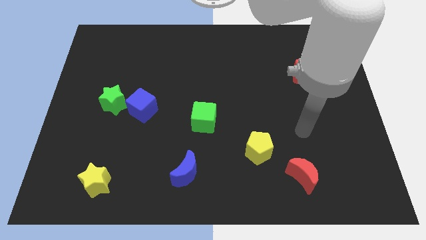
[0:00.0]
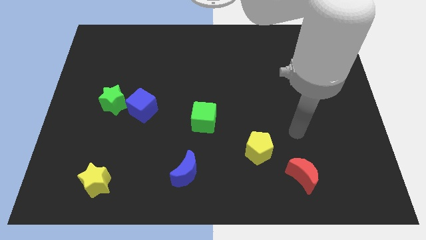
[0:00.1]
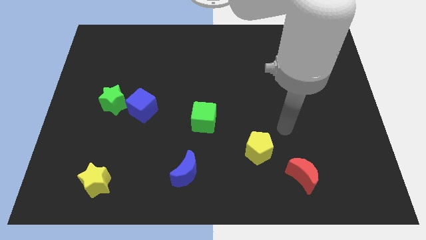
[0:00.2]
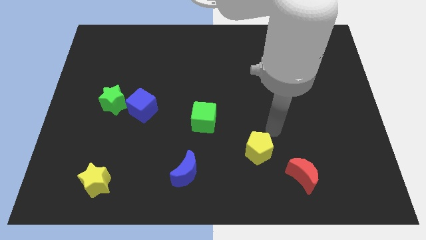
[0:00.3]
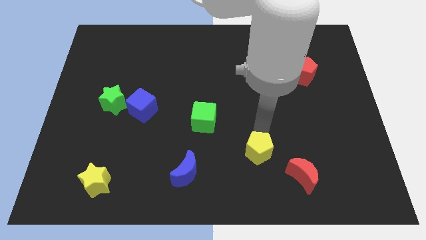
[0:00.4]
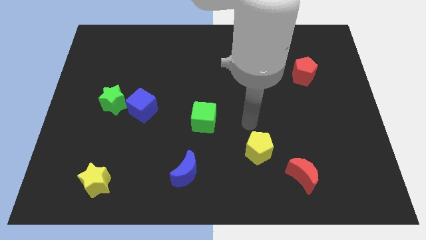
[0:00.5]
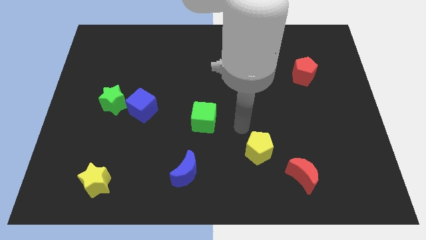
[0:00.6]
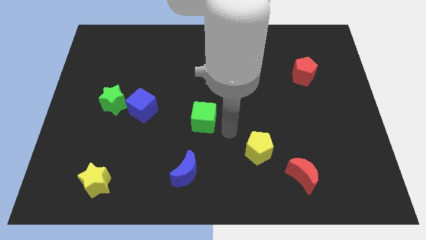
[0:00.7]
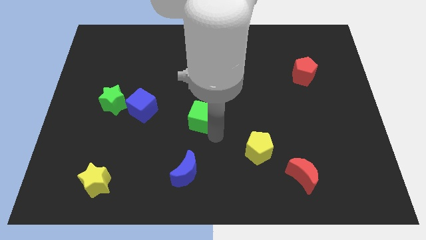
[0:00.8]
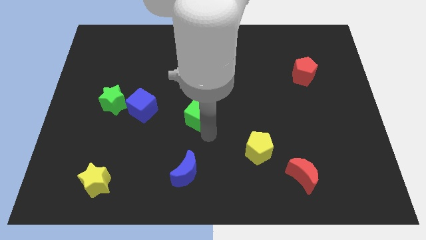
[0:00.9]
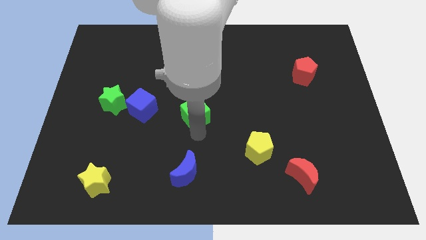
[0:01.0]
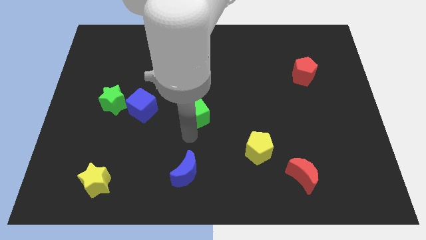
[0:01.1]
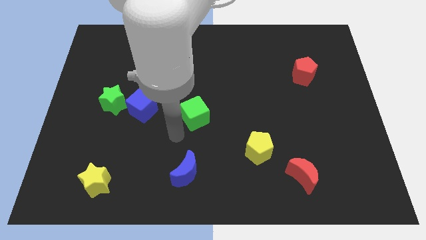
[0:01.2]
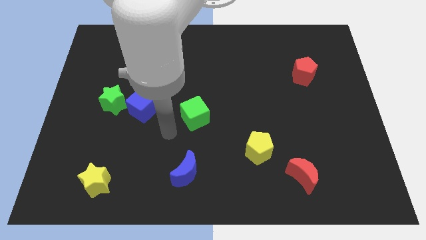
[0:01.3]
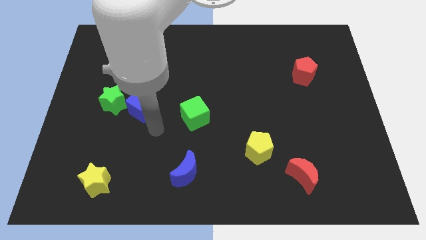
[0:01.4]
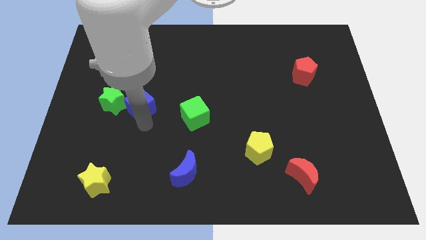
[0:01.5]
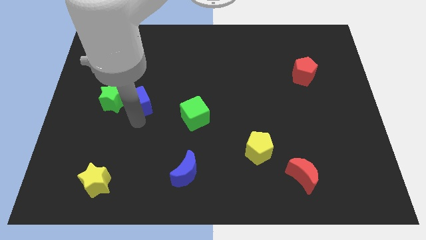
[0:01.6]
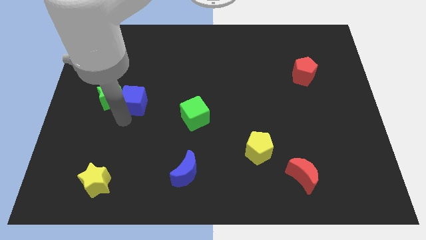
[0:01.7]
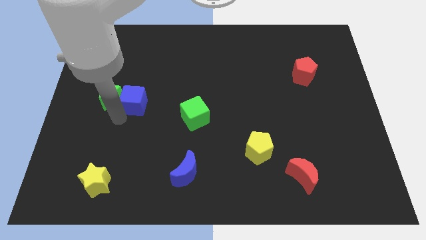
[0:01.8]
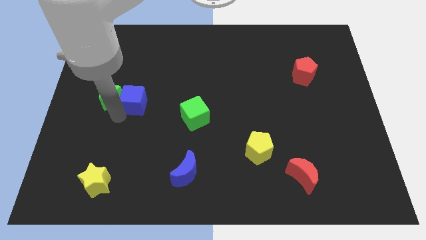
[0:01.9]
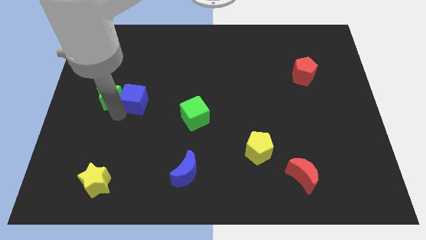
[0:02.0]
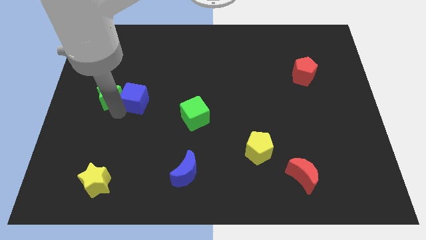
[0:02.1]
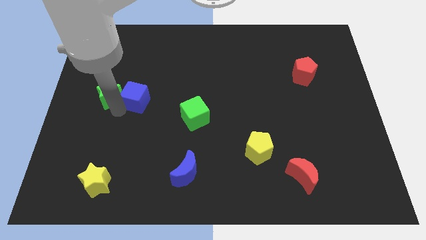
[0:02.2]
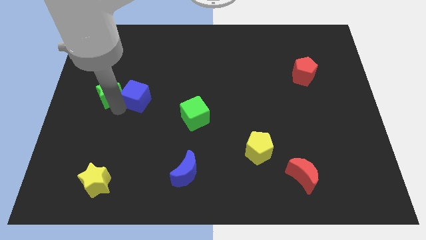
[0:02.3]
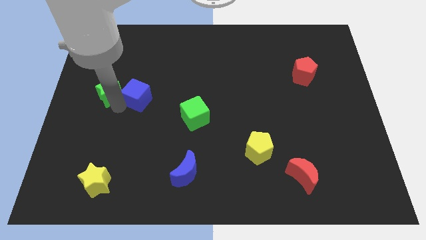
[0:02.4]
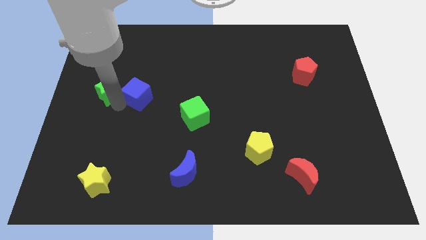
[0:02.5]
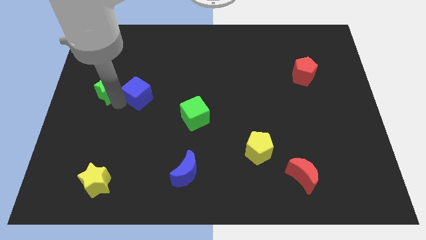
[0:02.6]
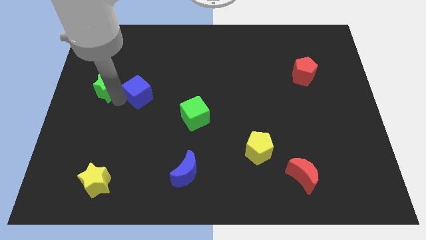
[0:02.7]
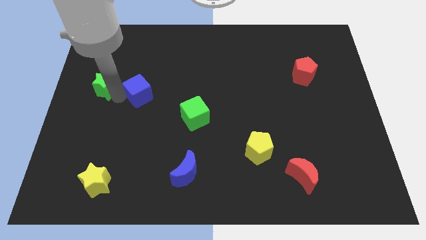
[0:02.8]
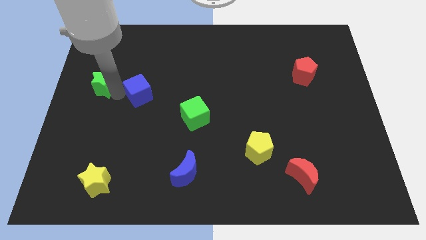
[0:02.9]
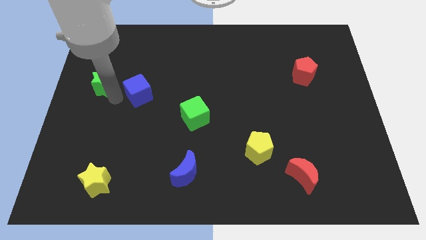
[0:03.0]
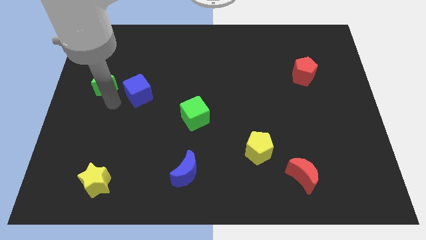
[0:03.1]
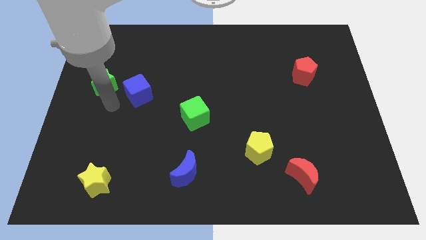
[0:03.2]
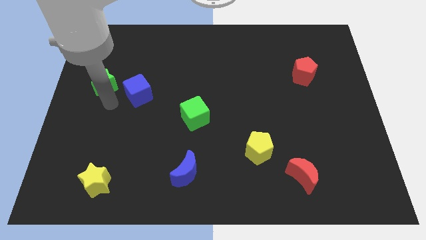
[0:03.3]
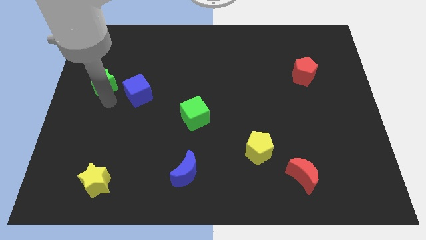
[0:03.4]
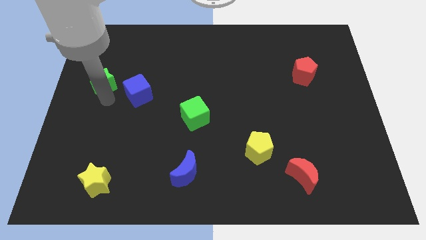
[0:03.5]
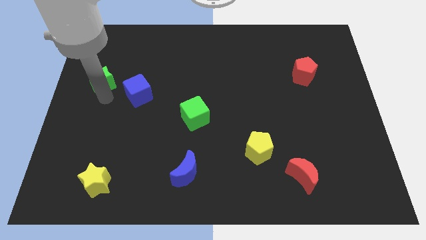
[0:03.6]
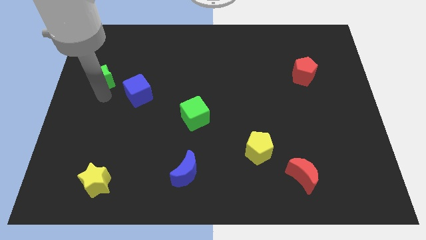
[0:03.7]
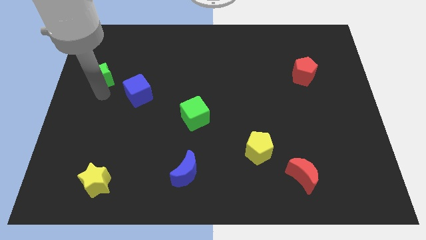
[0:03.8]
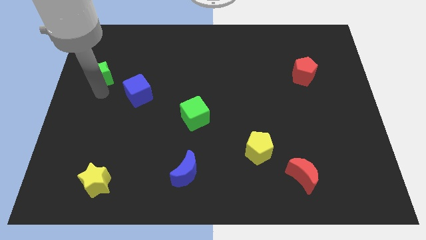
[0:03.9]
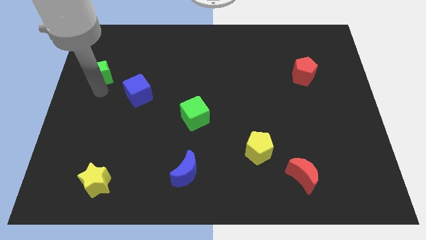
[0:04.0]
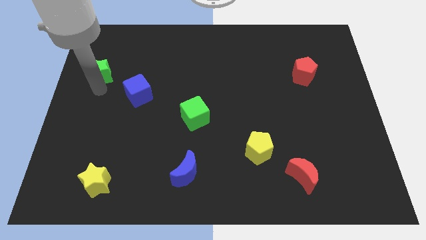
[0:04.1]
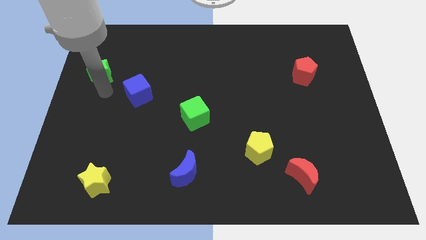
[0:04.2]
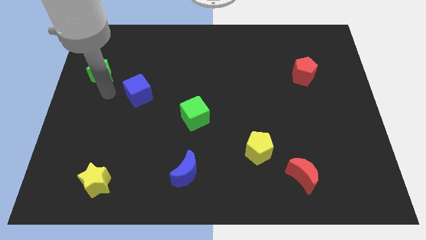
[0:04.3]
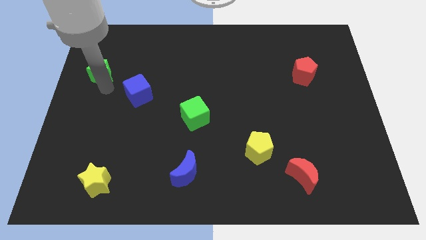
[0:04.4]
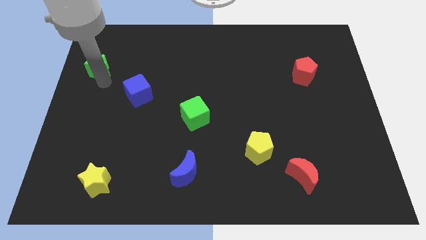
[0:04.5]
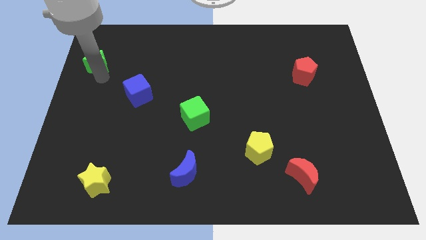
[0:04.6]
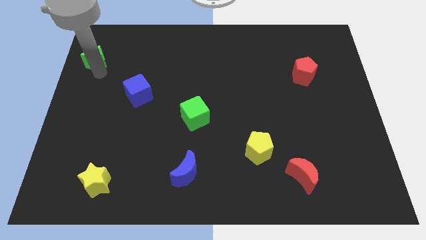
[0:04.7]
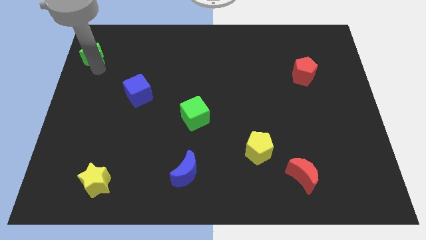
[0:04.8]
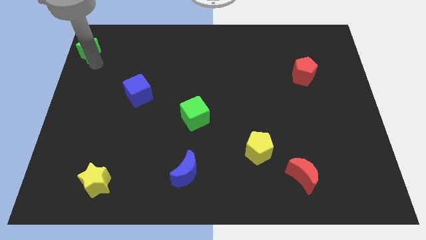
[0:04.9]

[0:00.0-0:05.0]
push the green star to the upper left corner
